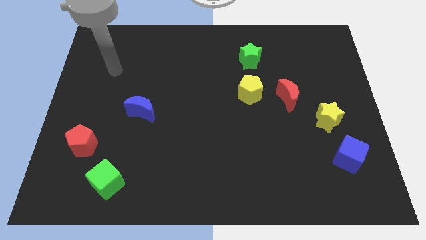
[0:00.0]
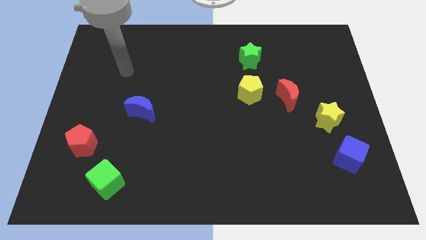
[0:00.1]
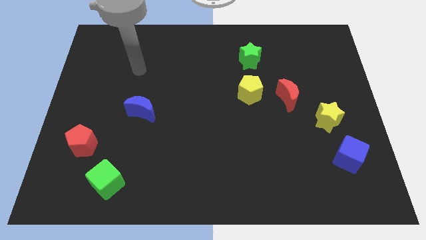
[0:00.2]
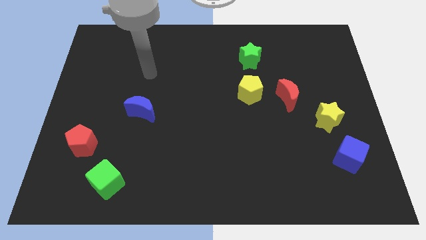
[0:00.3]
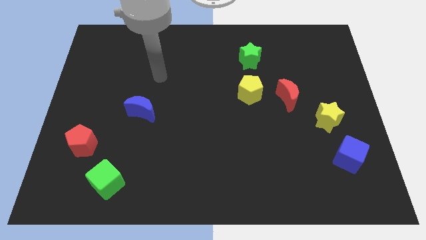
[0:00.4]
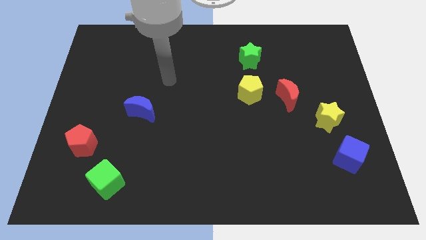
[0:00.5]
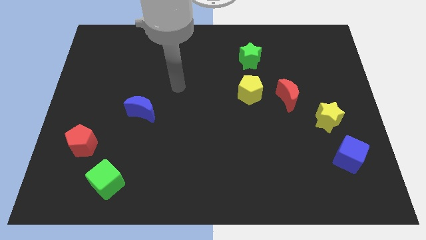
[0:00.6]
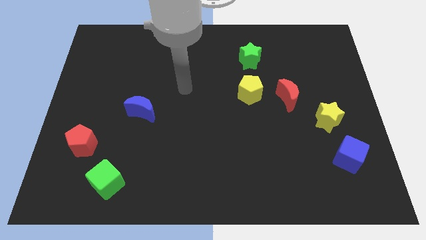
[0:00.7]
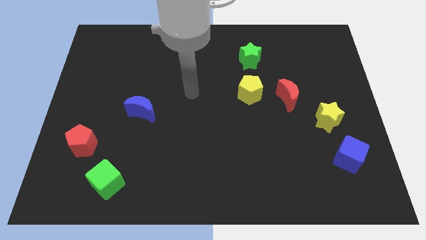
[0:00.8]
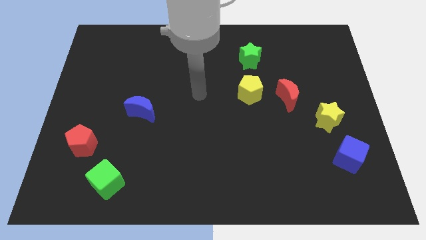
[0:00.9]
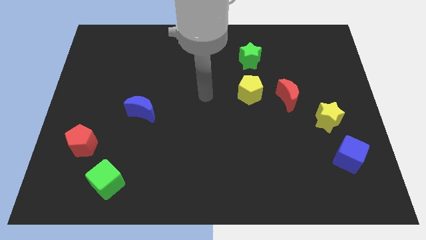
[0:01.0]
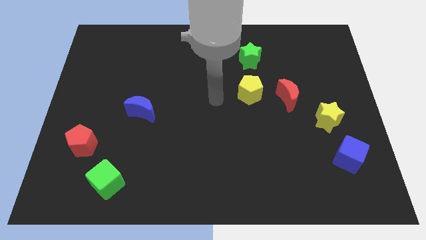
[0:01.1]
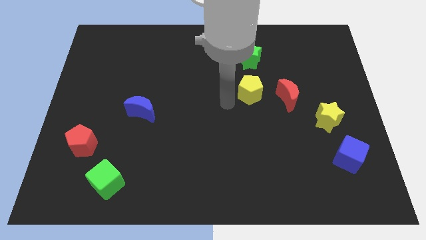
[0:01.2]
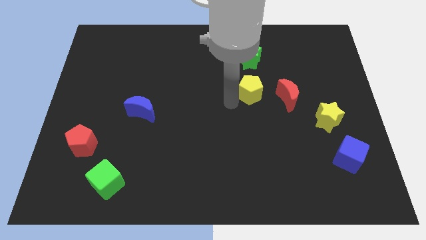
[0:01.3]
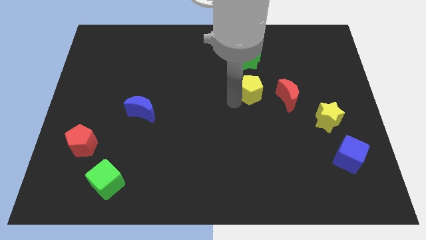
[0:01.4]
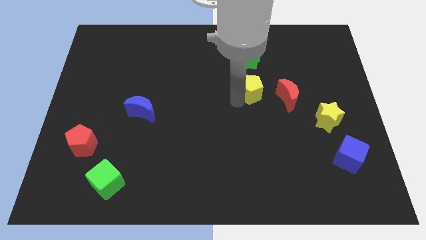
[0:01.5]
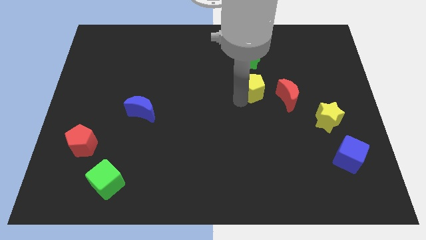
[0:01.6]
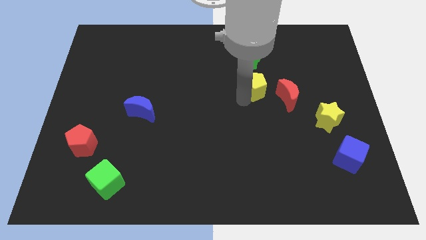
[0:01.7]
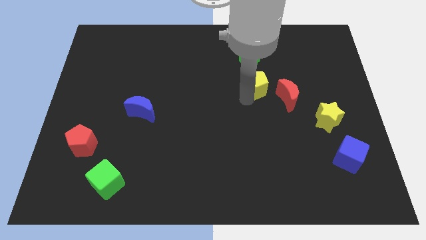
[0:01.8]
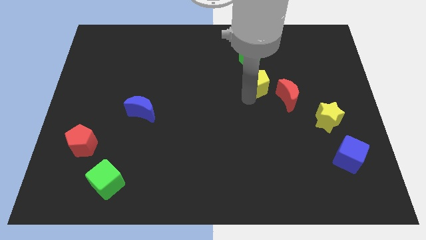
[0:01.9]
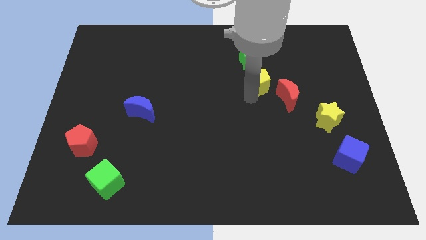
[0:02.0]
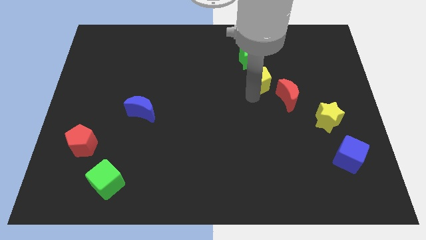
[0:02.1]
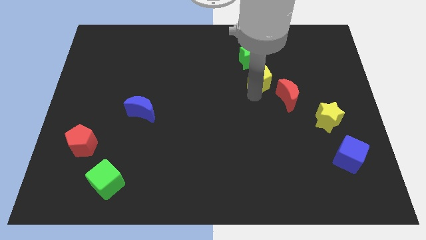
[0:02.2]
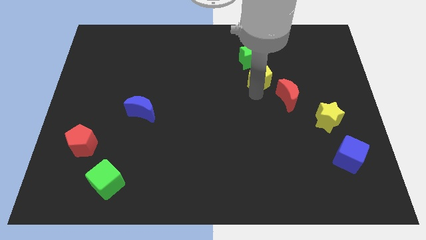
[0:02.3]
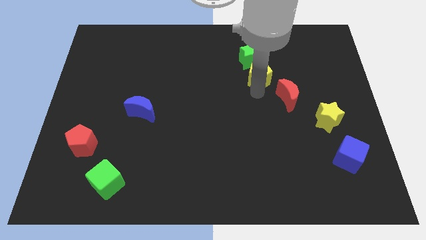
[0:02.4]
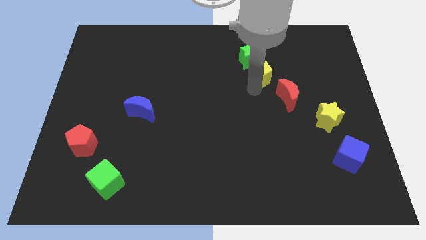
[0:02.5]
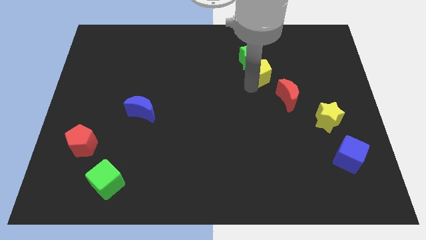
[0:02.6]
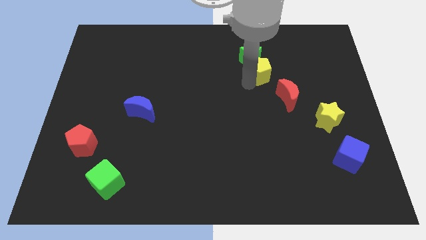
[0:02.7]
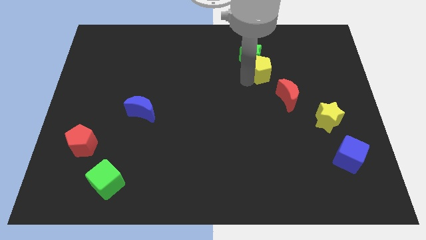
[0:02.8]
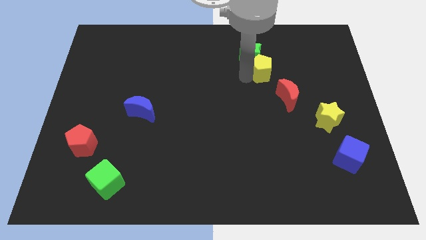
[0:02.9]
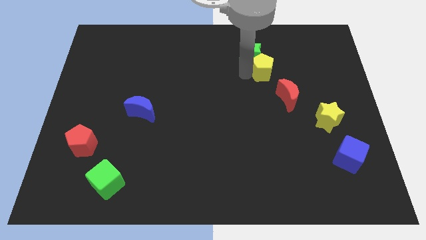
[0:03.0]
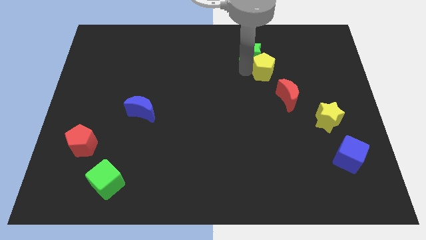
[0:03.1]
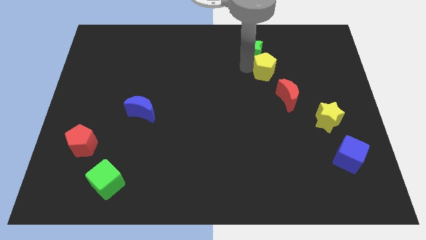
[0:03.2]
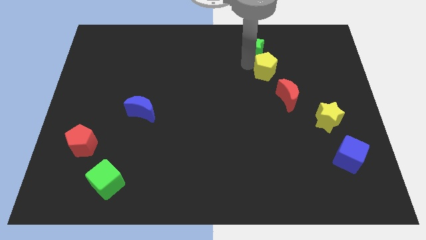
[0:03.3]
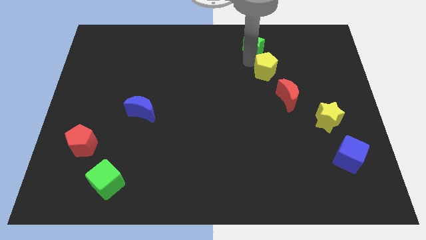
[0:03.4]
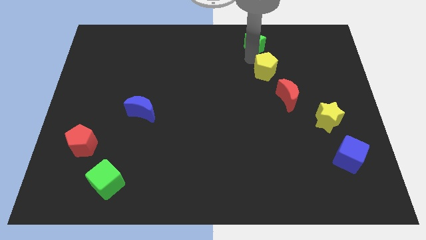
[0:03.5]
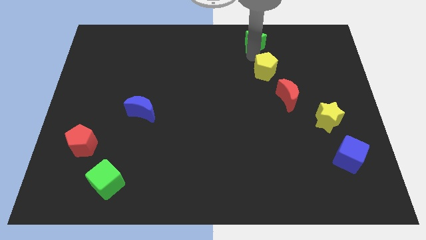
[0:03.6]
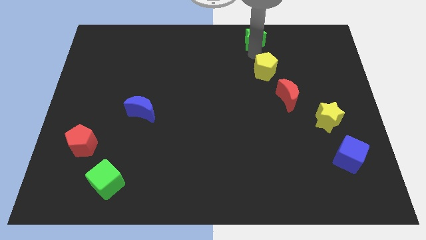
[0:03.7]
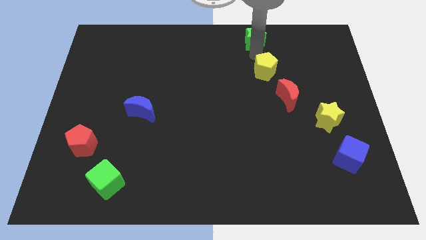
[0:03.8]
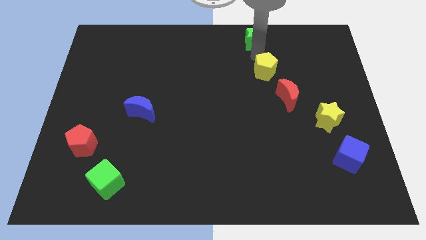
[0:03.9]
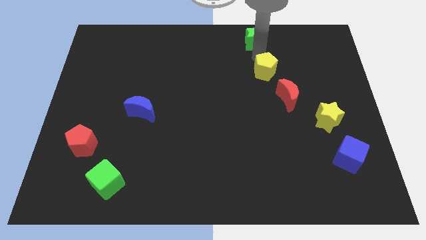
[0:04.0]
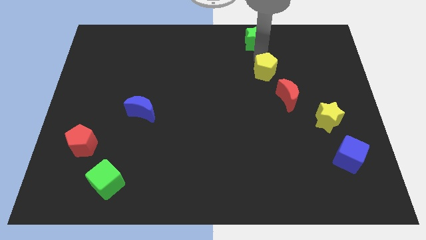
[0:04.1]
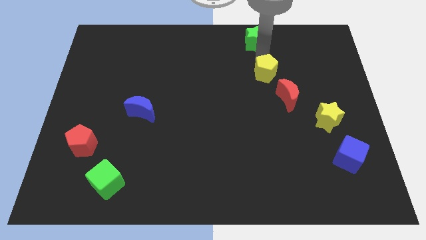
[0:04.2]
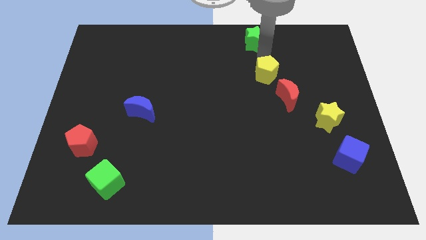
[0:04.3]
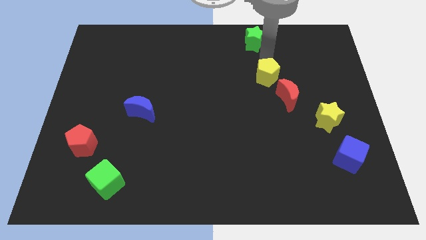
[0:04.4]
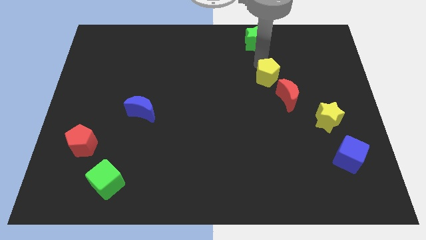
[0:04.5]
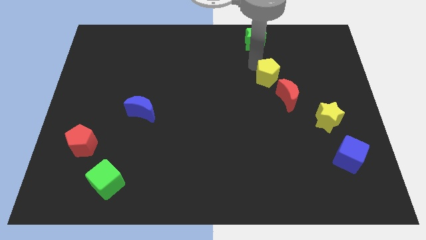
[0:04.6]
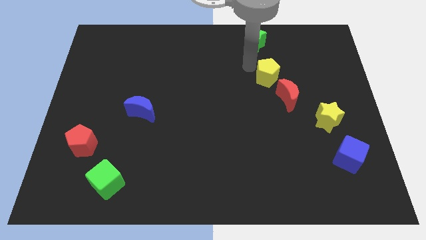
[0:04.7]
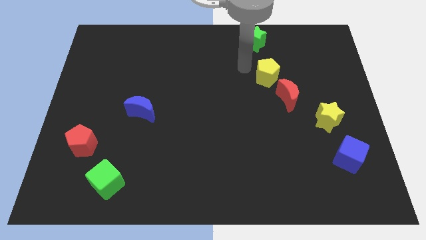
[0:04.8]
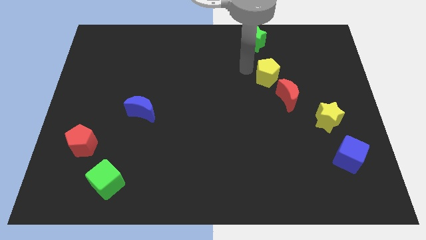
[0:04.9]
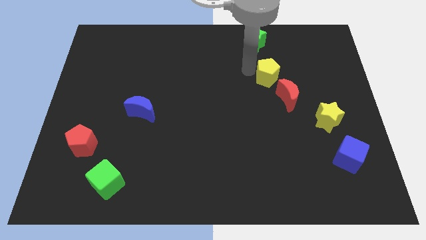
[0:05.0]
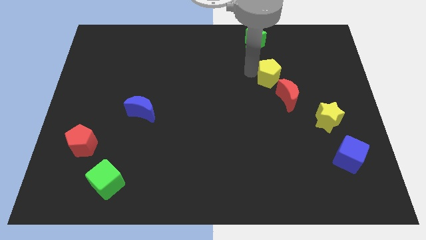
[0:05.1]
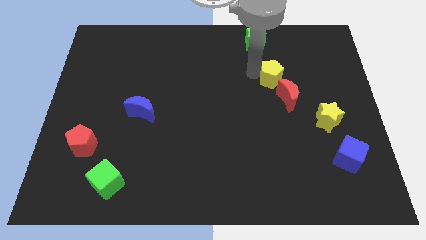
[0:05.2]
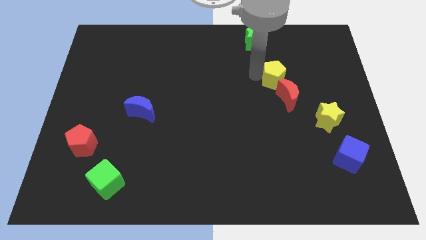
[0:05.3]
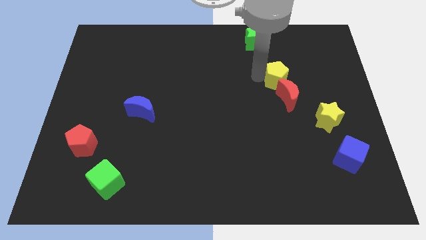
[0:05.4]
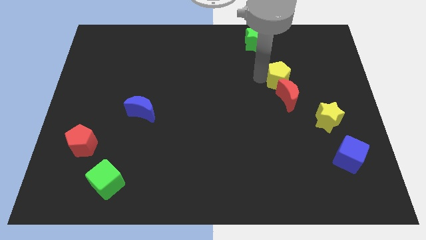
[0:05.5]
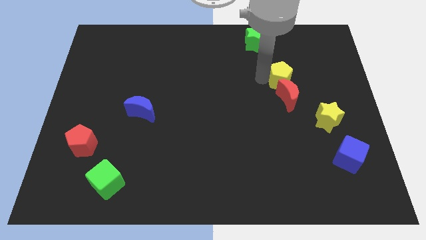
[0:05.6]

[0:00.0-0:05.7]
push the yellow pentagon somewhat right

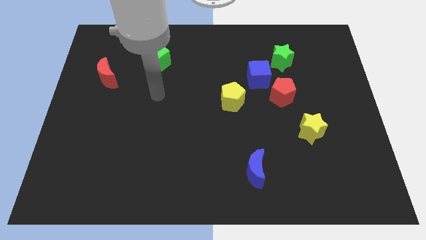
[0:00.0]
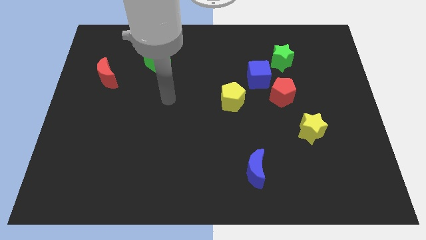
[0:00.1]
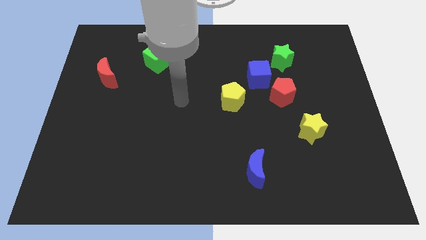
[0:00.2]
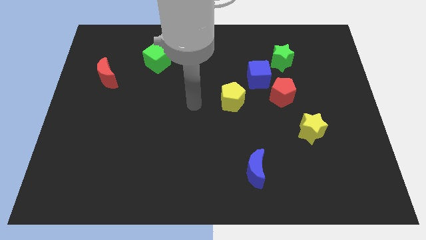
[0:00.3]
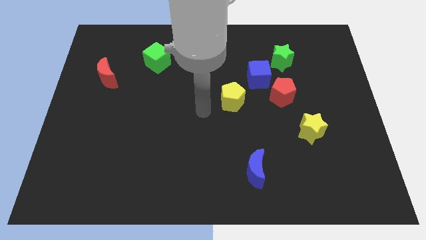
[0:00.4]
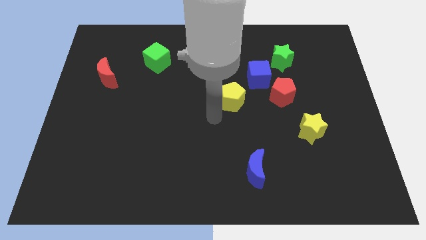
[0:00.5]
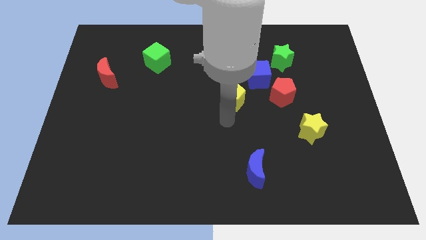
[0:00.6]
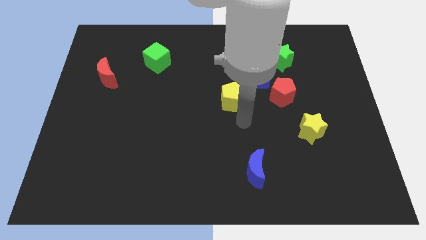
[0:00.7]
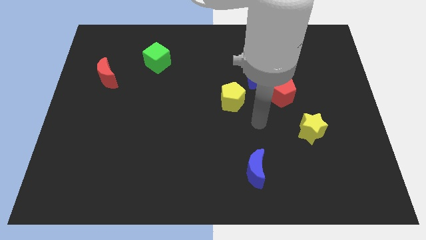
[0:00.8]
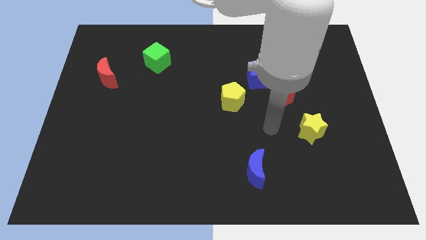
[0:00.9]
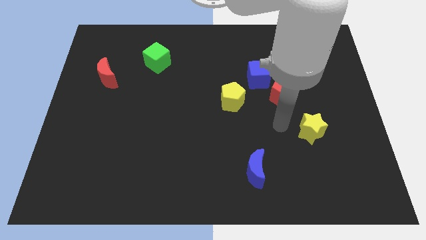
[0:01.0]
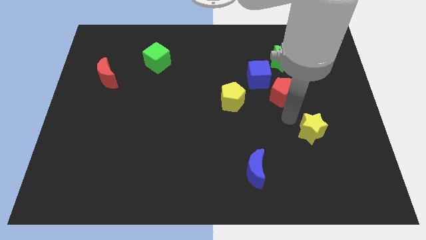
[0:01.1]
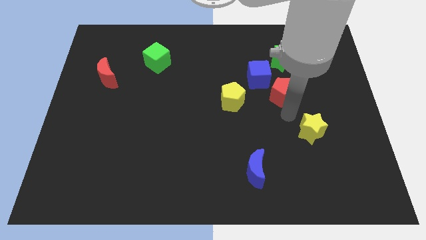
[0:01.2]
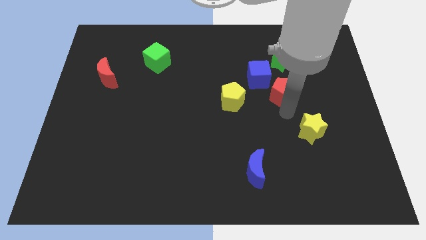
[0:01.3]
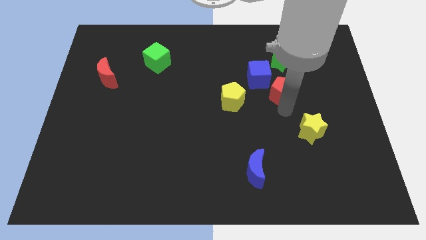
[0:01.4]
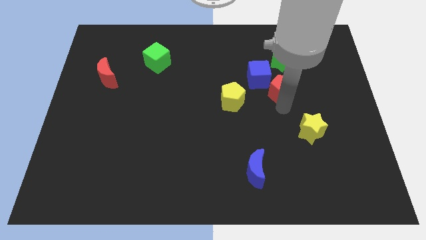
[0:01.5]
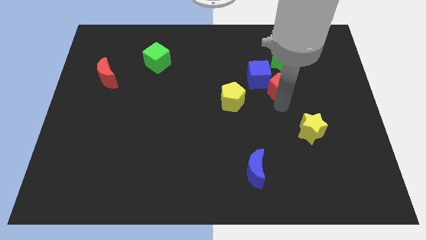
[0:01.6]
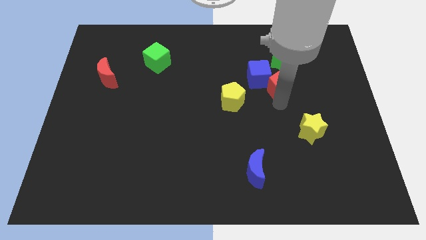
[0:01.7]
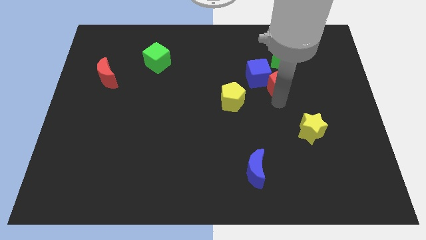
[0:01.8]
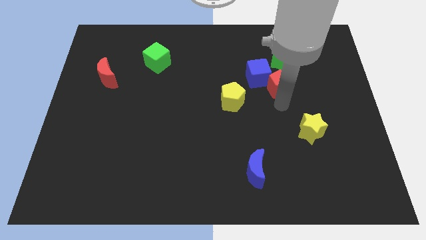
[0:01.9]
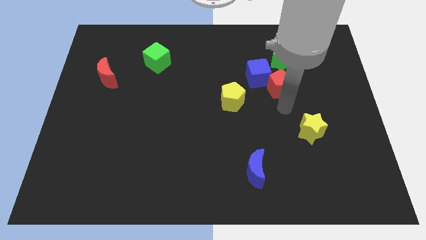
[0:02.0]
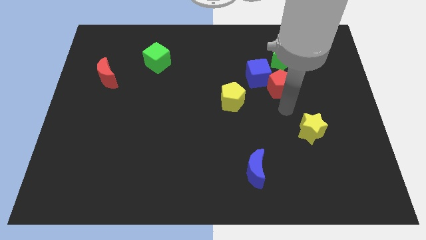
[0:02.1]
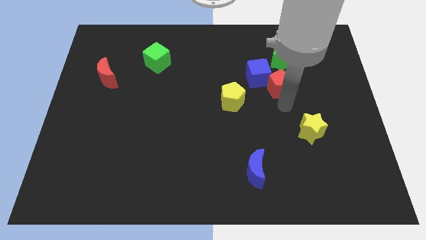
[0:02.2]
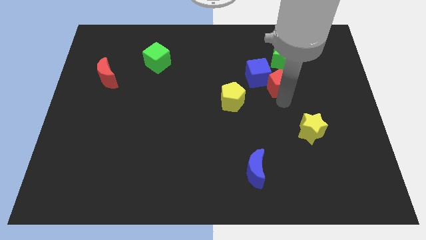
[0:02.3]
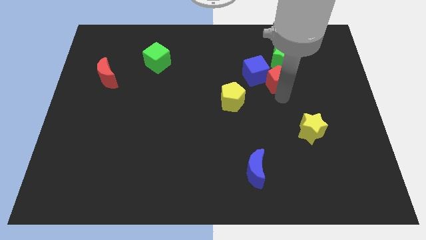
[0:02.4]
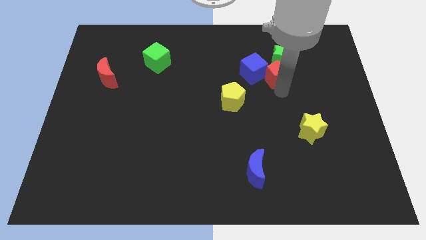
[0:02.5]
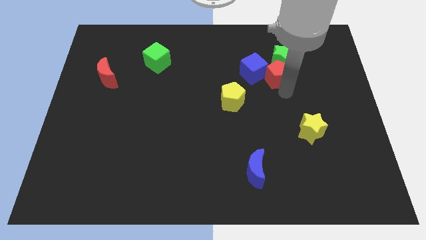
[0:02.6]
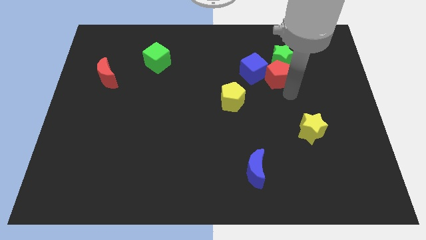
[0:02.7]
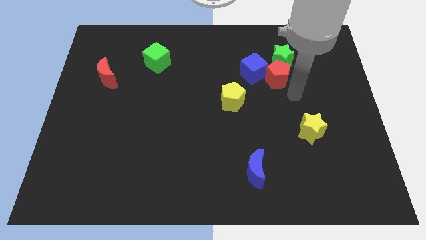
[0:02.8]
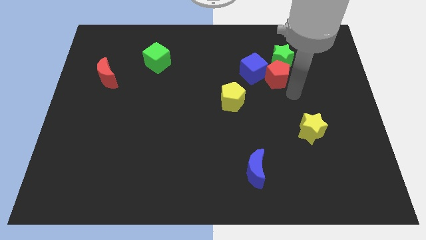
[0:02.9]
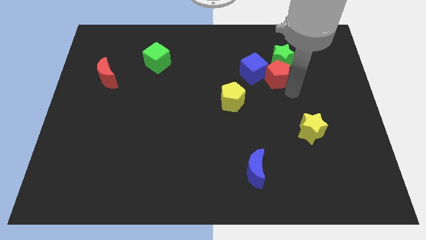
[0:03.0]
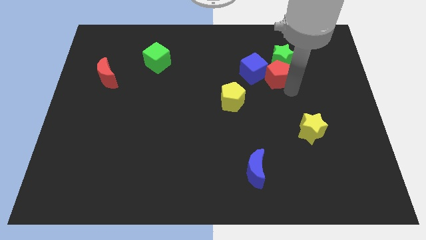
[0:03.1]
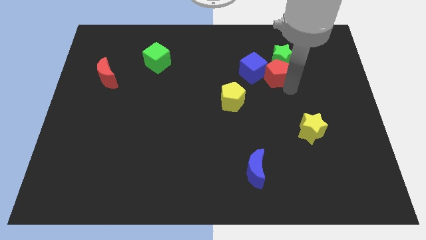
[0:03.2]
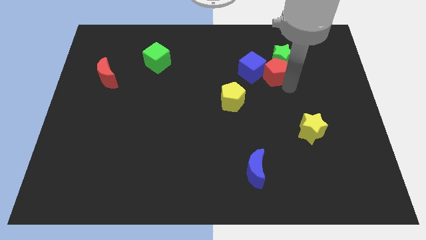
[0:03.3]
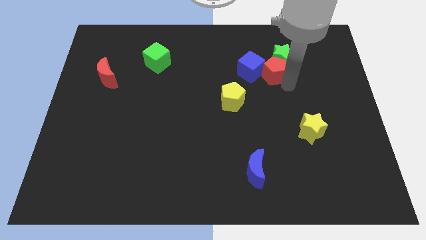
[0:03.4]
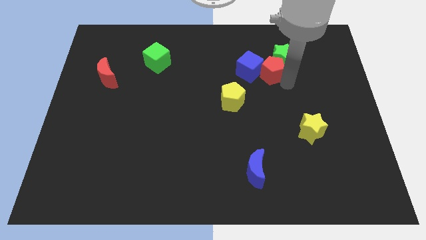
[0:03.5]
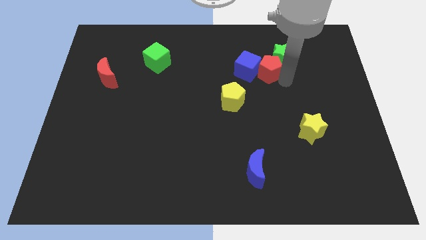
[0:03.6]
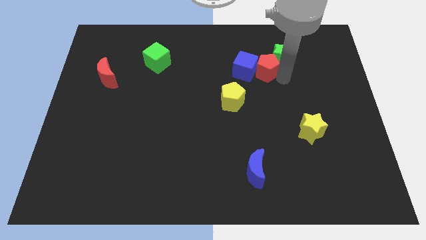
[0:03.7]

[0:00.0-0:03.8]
slightly push the red pentagon upwards and left diagonally
